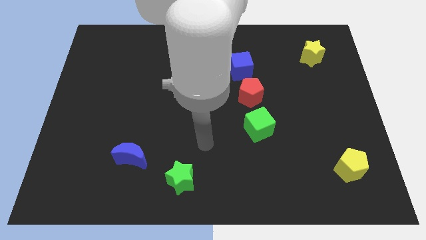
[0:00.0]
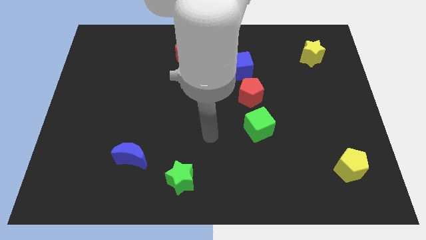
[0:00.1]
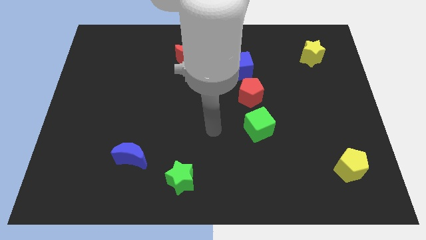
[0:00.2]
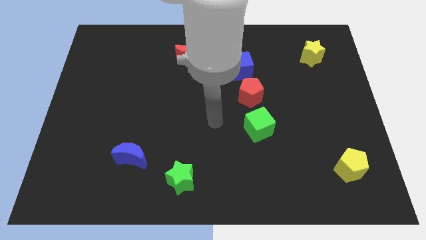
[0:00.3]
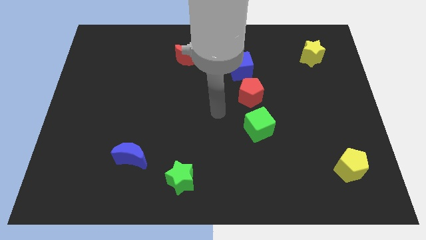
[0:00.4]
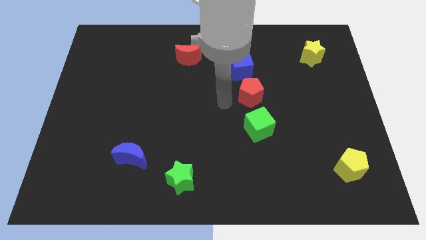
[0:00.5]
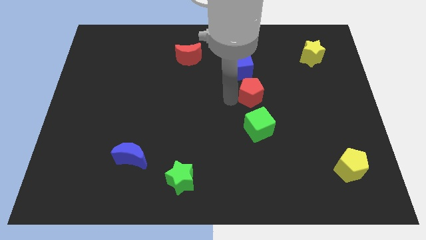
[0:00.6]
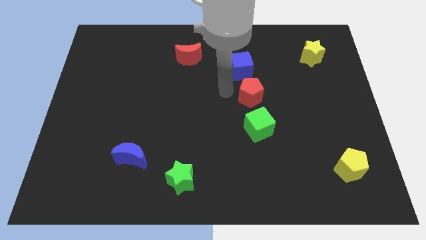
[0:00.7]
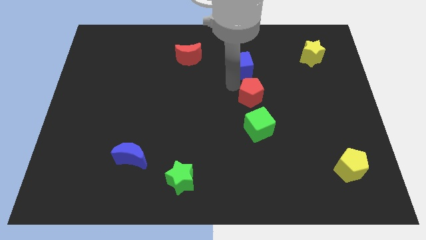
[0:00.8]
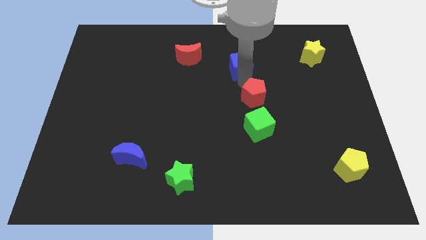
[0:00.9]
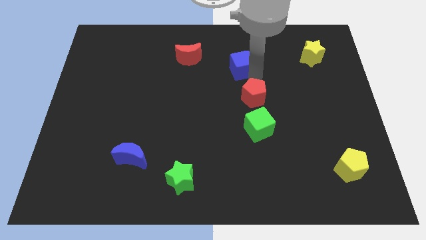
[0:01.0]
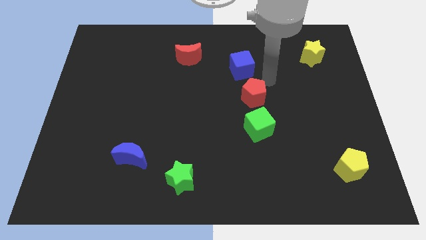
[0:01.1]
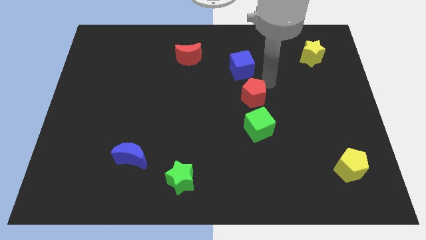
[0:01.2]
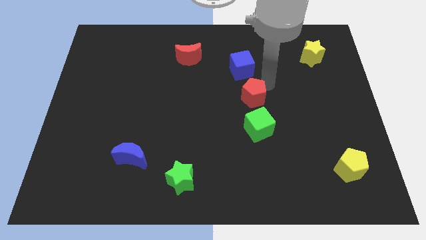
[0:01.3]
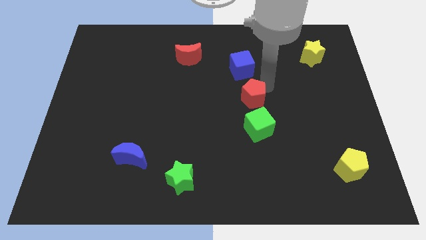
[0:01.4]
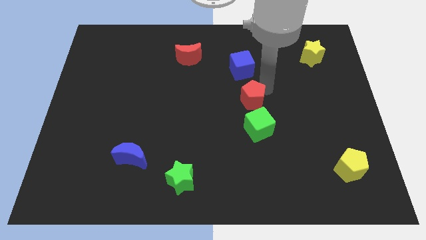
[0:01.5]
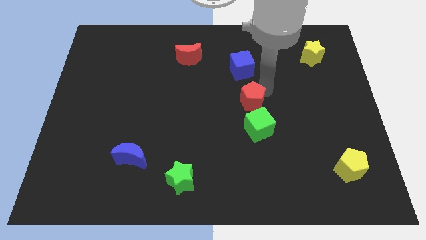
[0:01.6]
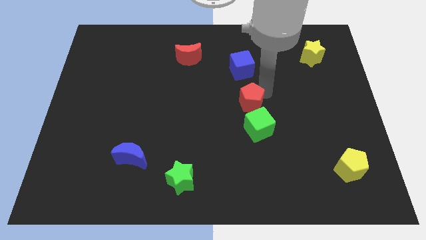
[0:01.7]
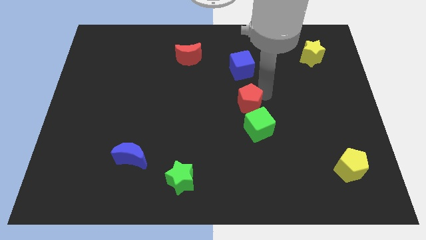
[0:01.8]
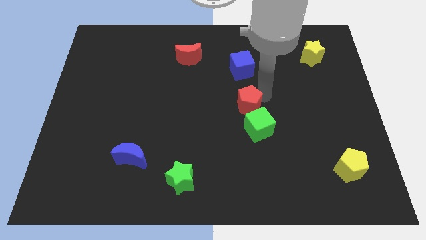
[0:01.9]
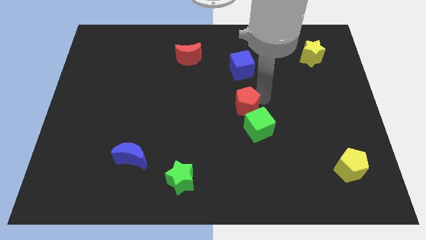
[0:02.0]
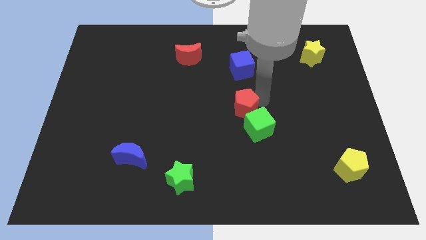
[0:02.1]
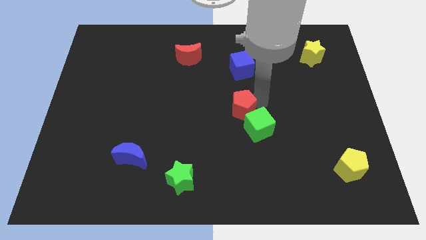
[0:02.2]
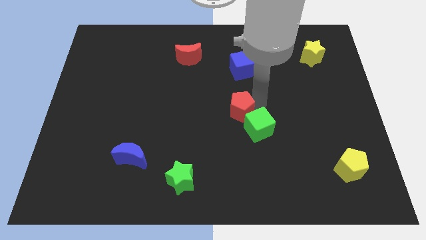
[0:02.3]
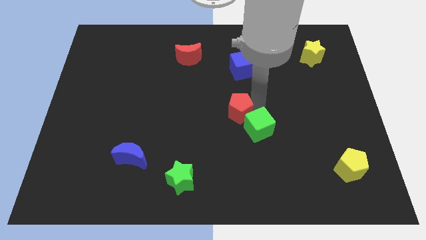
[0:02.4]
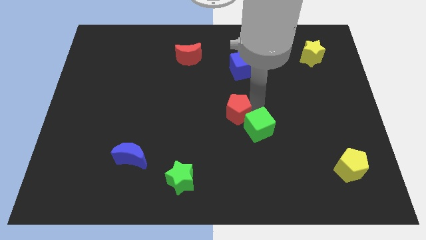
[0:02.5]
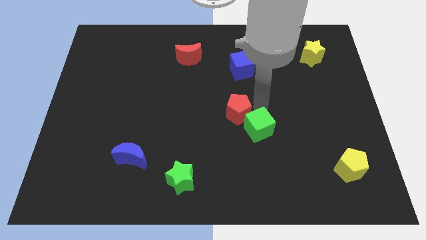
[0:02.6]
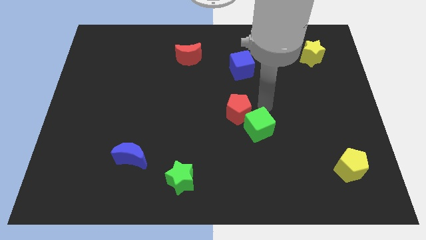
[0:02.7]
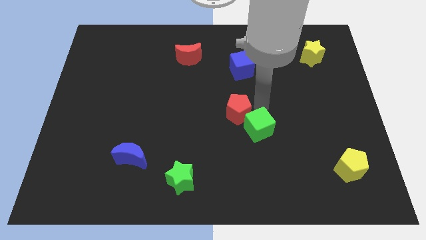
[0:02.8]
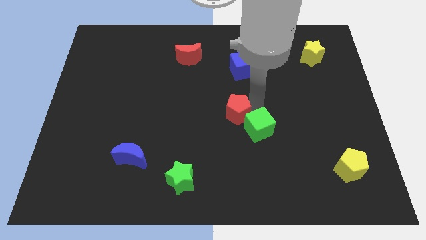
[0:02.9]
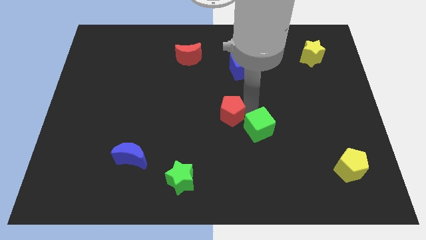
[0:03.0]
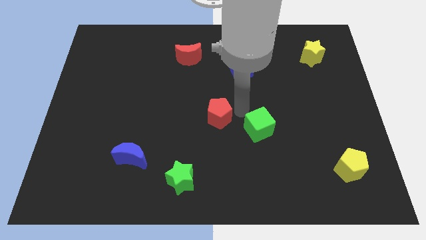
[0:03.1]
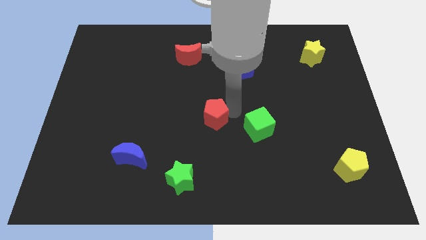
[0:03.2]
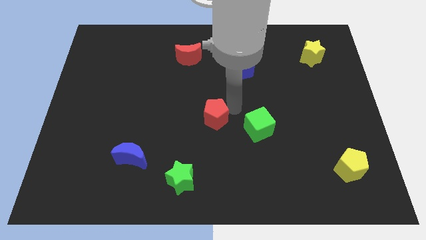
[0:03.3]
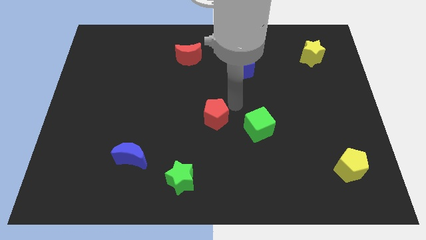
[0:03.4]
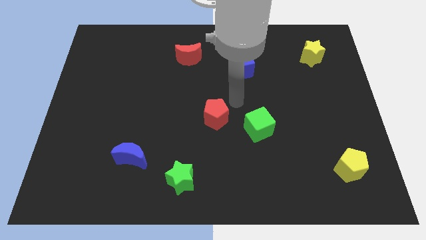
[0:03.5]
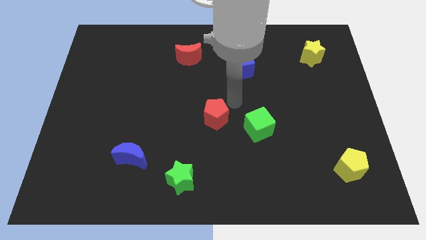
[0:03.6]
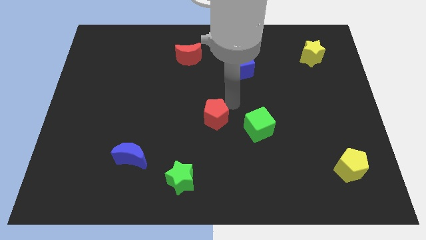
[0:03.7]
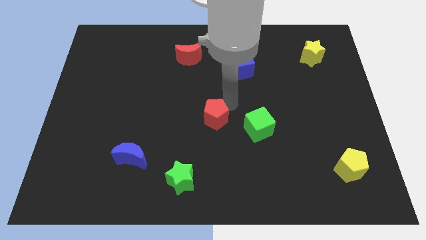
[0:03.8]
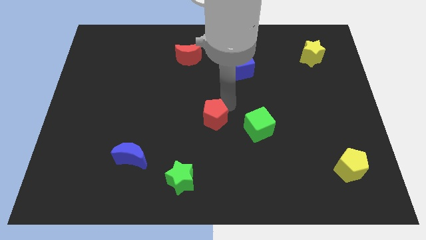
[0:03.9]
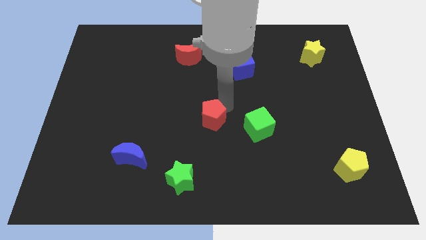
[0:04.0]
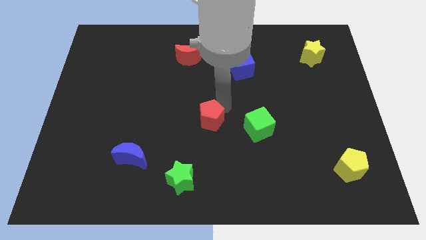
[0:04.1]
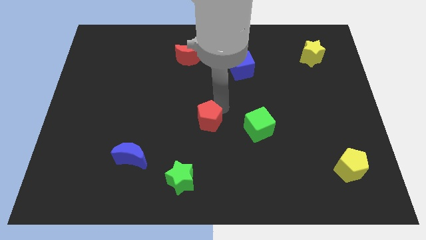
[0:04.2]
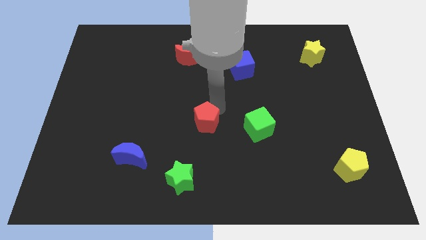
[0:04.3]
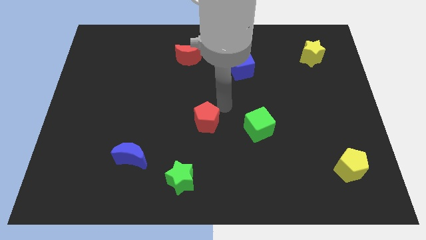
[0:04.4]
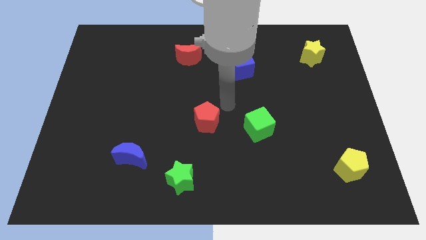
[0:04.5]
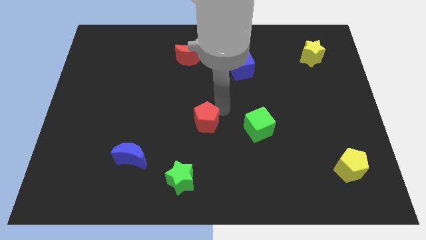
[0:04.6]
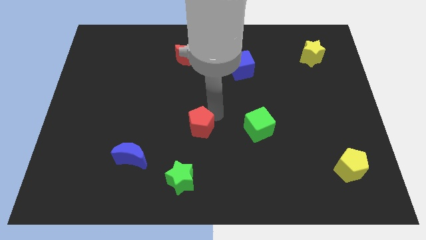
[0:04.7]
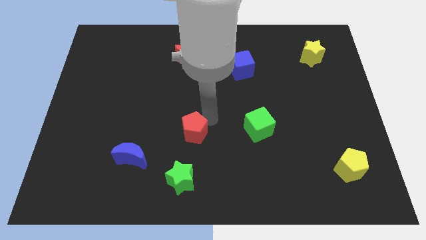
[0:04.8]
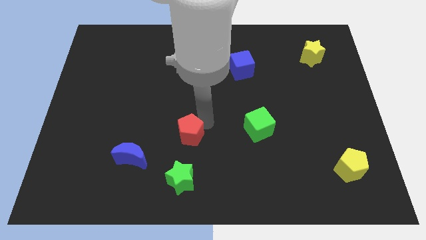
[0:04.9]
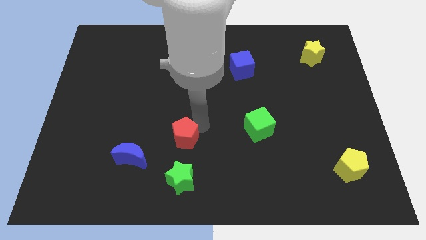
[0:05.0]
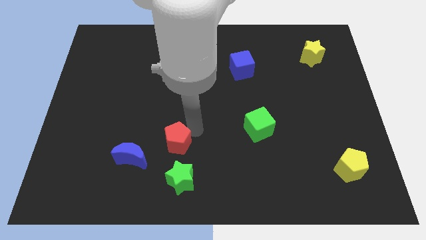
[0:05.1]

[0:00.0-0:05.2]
slide the red pentagon diagonally downwards and left

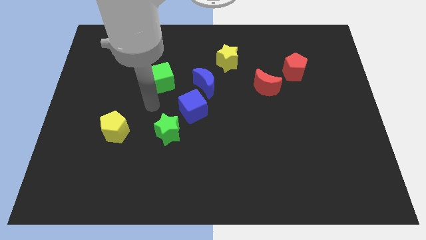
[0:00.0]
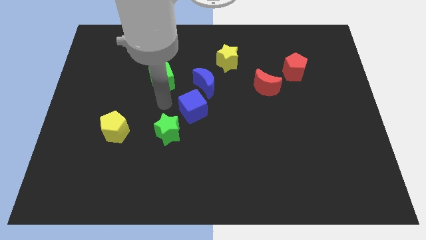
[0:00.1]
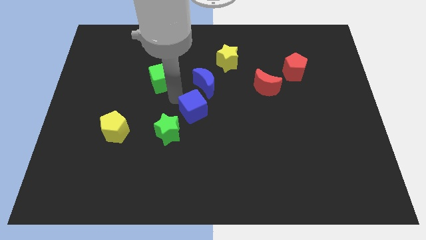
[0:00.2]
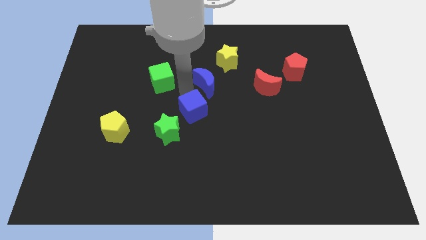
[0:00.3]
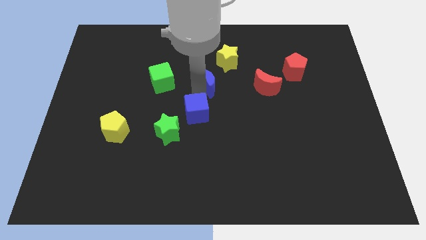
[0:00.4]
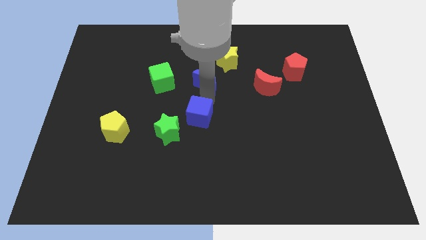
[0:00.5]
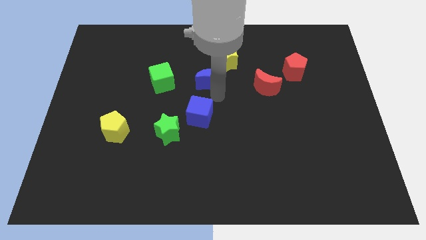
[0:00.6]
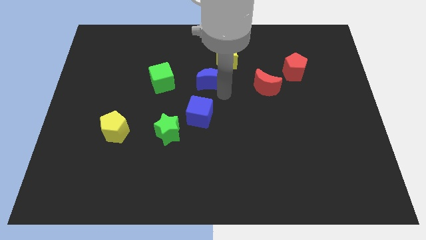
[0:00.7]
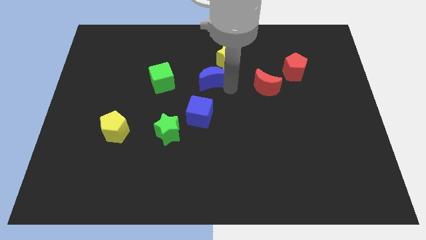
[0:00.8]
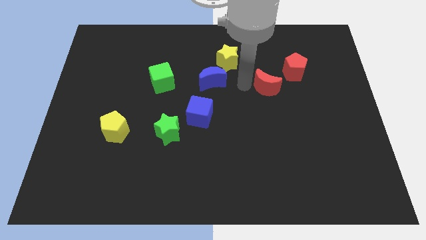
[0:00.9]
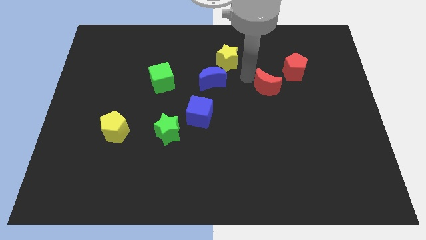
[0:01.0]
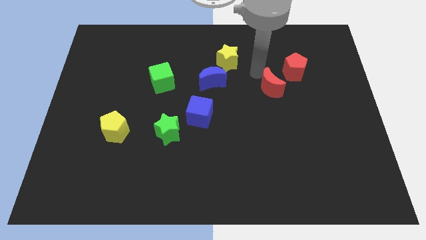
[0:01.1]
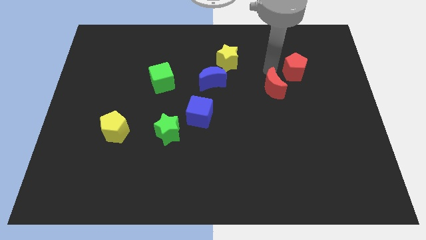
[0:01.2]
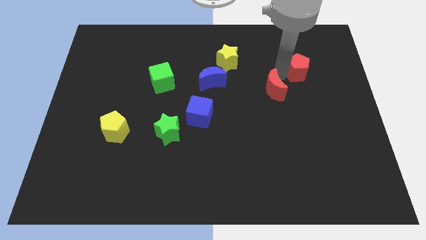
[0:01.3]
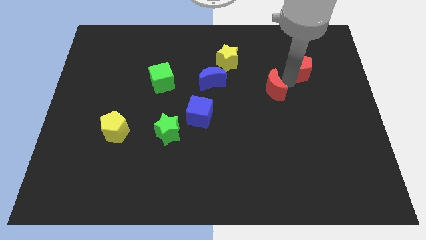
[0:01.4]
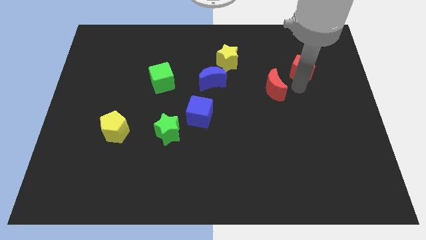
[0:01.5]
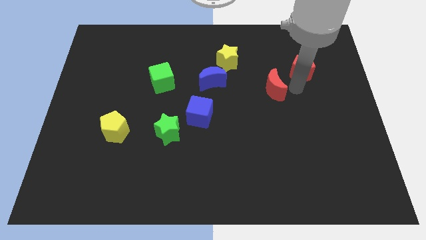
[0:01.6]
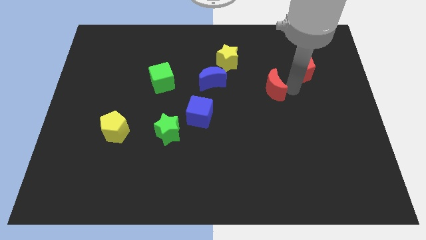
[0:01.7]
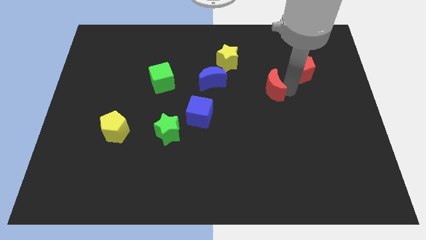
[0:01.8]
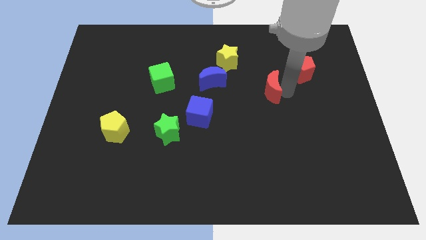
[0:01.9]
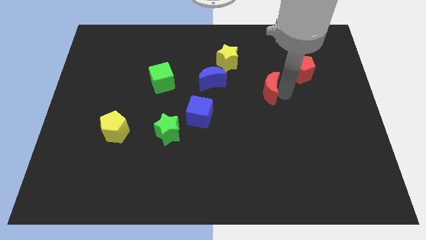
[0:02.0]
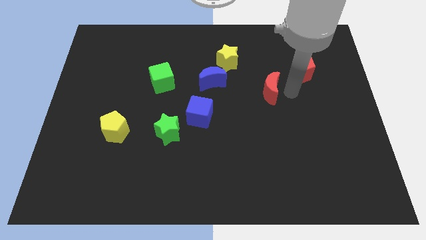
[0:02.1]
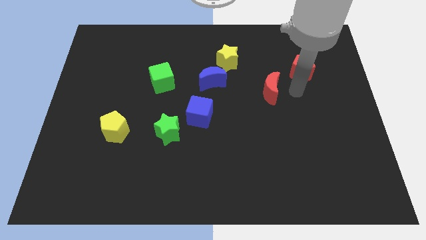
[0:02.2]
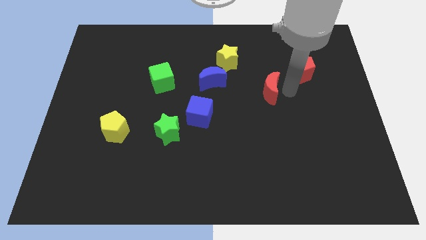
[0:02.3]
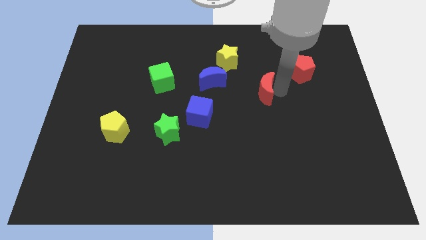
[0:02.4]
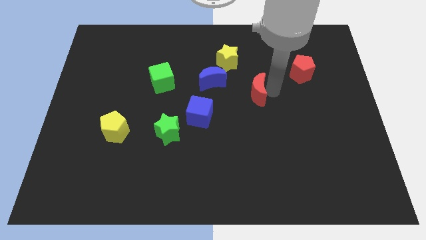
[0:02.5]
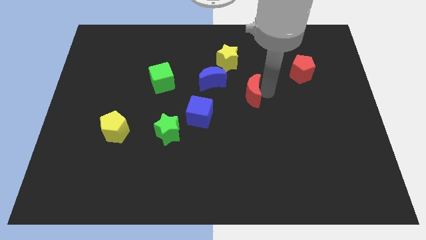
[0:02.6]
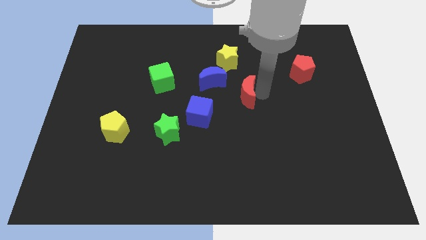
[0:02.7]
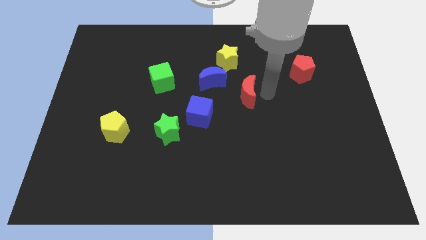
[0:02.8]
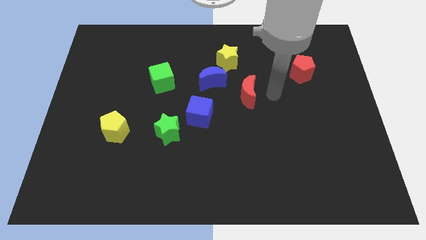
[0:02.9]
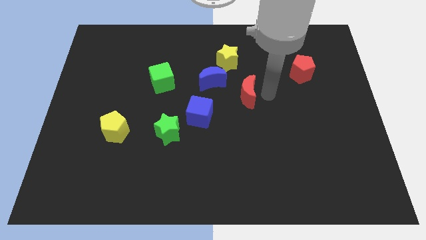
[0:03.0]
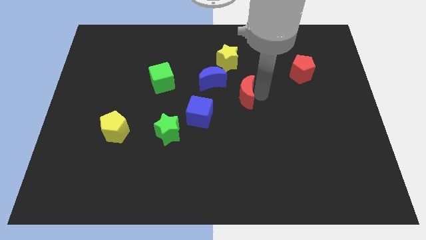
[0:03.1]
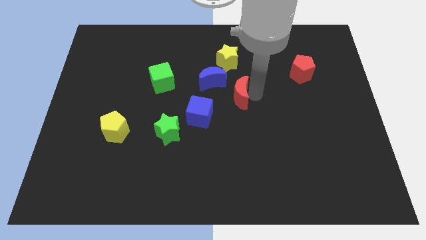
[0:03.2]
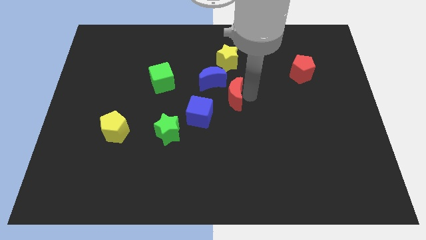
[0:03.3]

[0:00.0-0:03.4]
slightly move the red moon to the left
